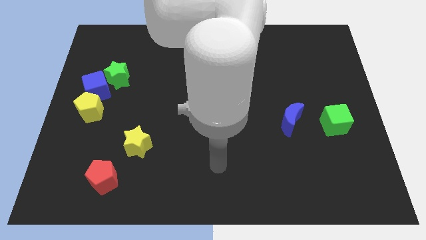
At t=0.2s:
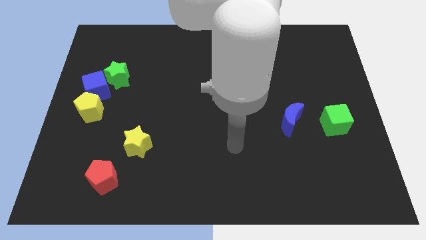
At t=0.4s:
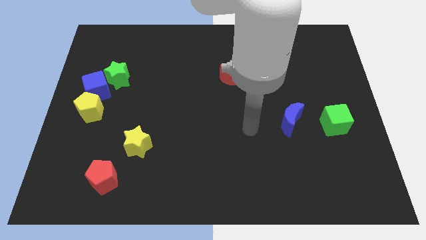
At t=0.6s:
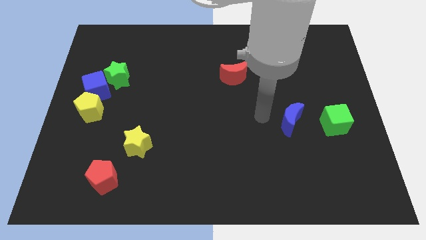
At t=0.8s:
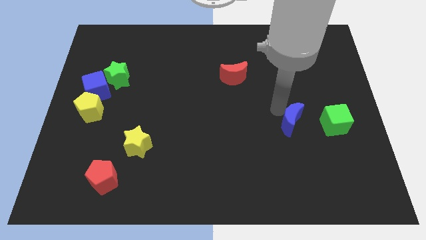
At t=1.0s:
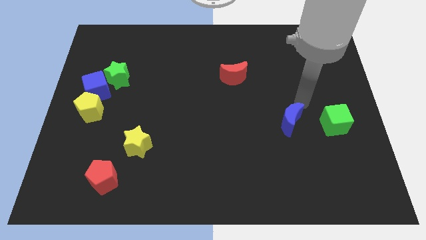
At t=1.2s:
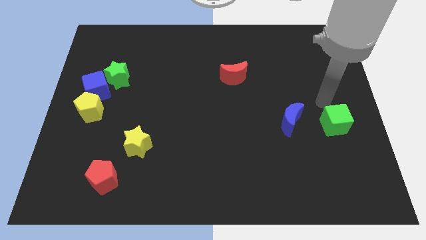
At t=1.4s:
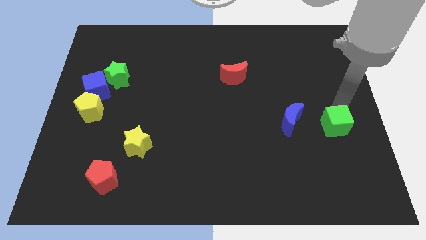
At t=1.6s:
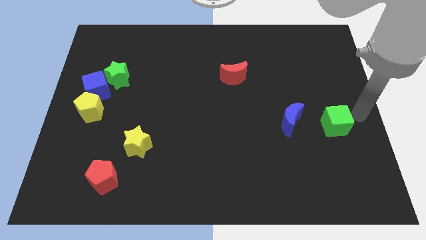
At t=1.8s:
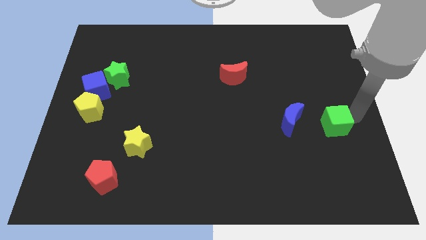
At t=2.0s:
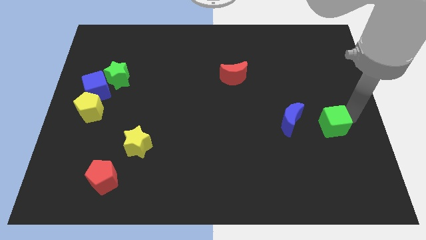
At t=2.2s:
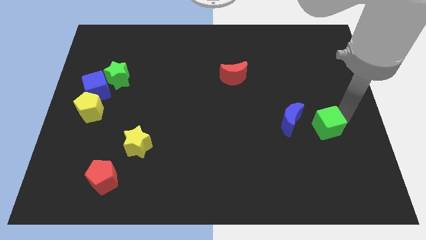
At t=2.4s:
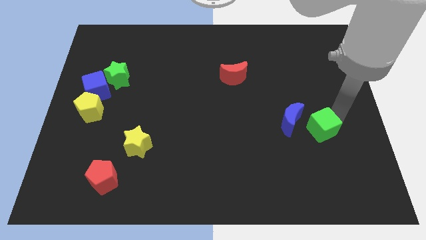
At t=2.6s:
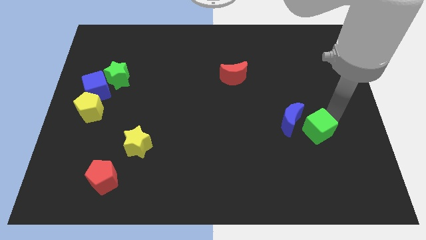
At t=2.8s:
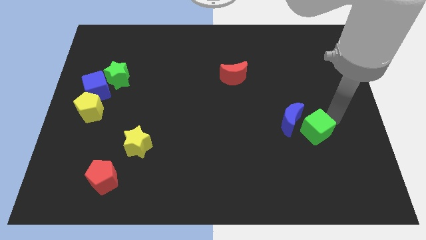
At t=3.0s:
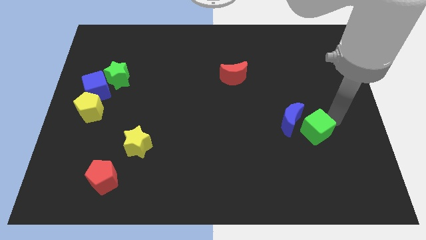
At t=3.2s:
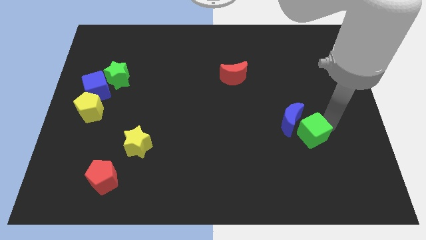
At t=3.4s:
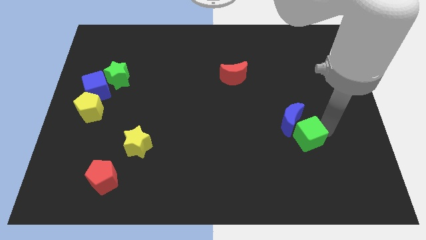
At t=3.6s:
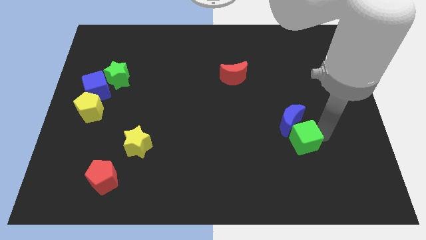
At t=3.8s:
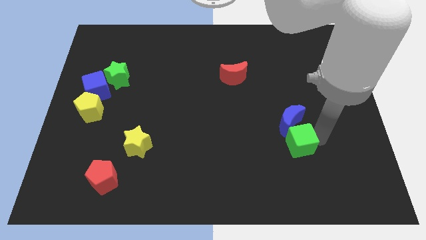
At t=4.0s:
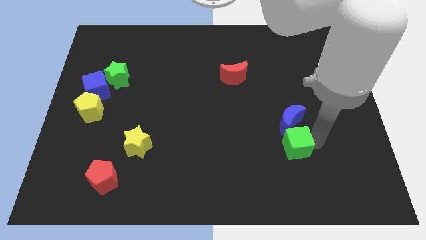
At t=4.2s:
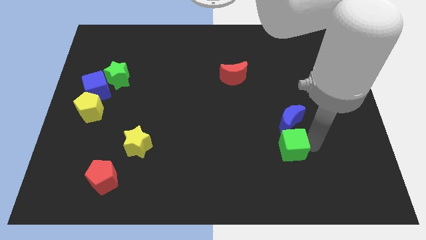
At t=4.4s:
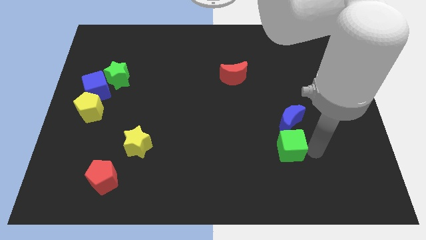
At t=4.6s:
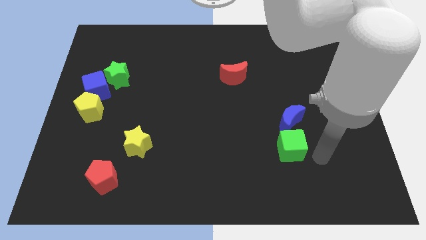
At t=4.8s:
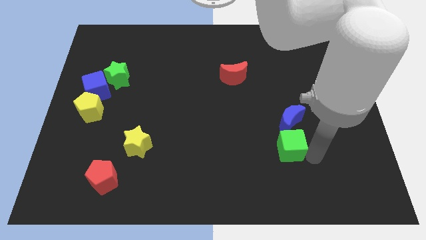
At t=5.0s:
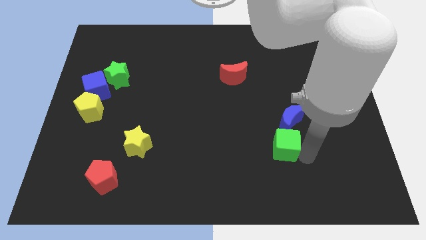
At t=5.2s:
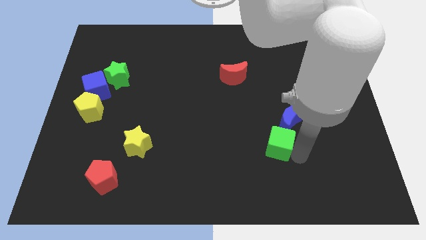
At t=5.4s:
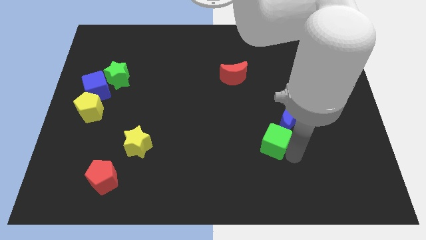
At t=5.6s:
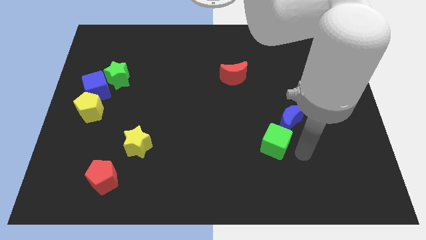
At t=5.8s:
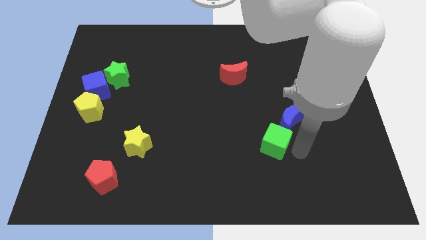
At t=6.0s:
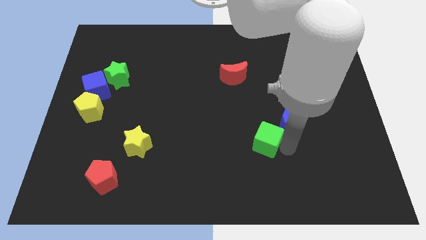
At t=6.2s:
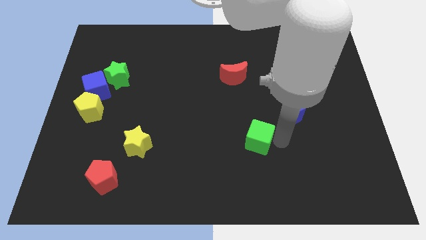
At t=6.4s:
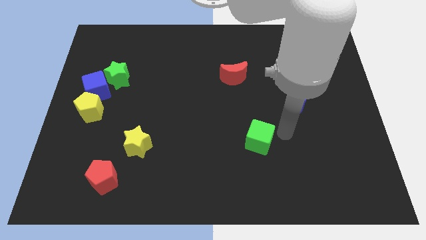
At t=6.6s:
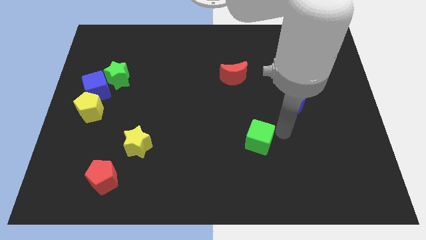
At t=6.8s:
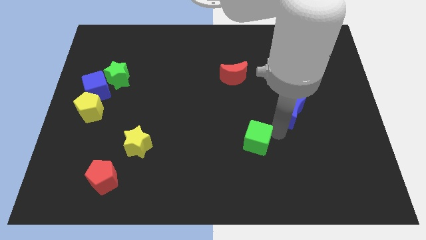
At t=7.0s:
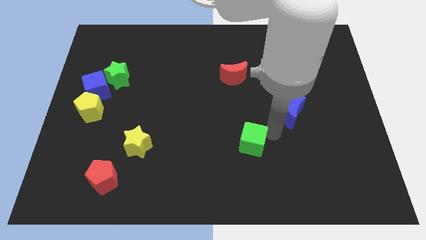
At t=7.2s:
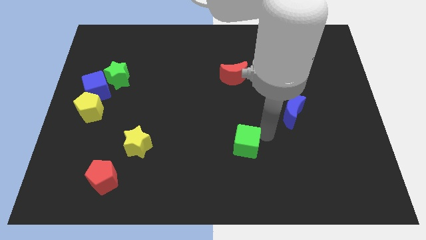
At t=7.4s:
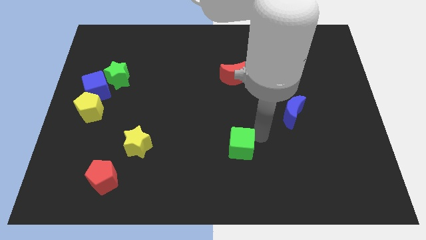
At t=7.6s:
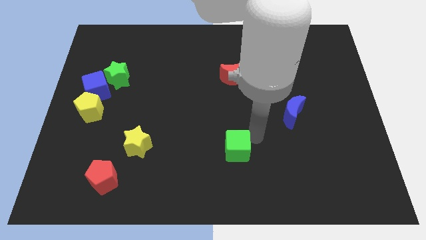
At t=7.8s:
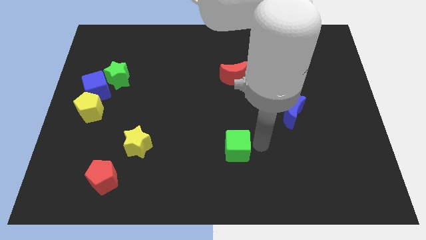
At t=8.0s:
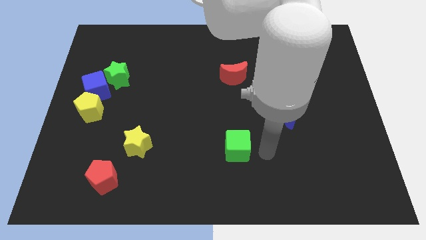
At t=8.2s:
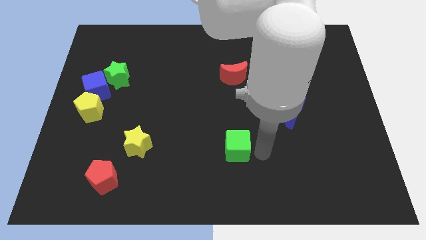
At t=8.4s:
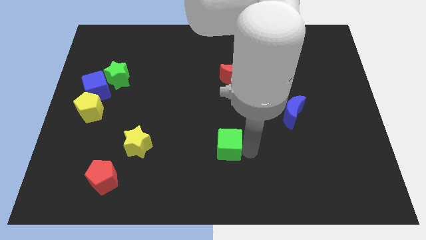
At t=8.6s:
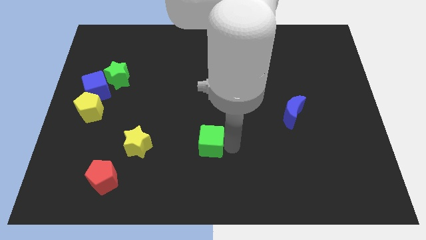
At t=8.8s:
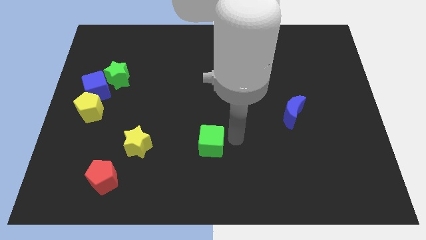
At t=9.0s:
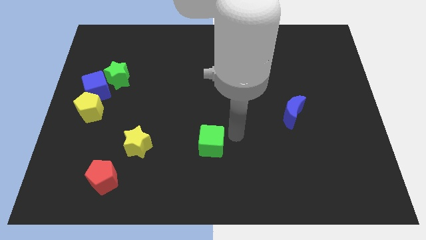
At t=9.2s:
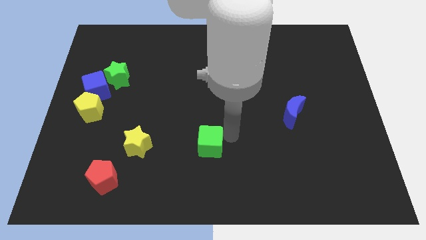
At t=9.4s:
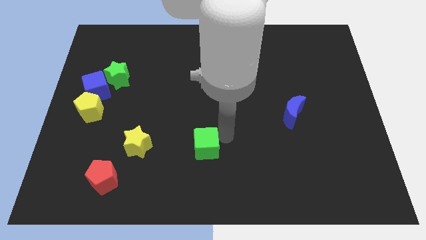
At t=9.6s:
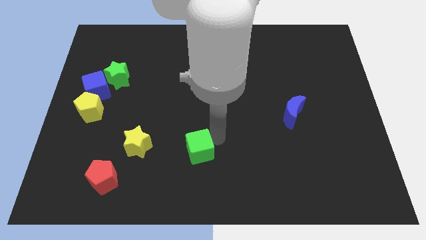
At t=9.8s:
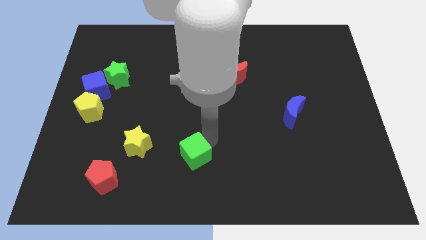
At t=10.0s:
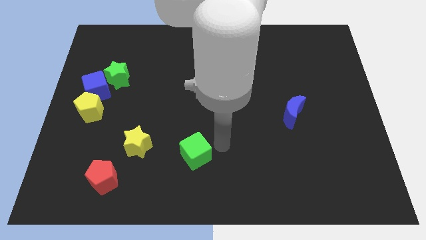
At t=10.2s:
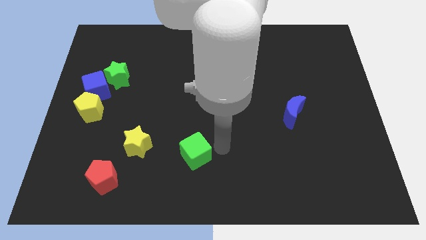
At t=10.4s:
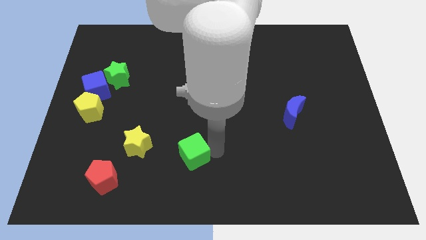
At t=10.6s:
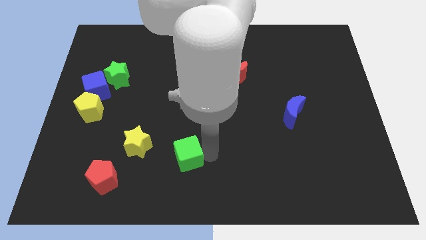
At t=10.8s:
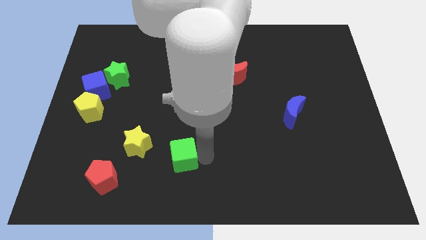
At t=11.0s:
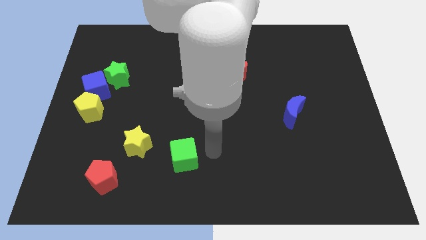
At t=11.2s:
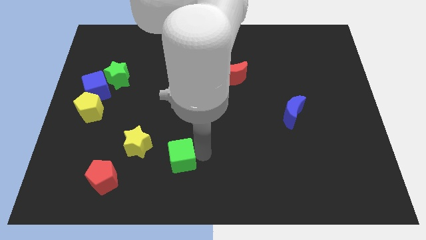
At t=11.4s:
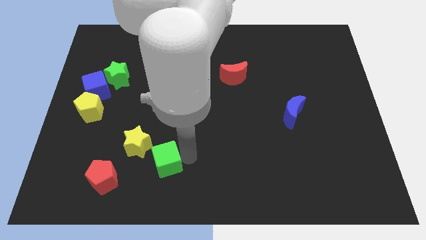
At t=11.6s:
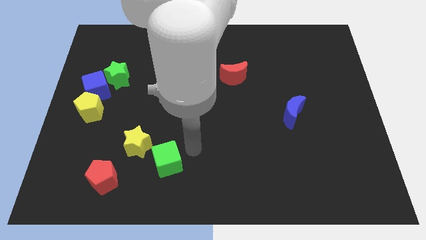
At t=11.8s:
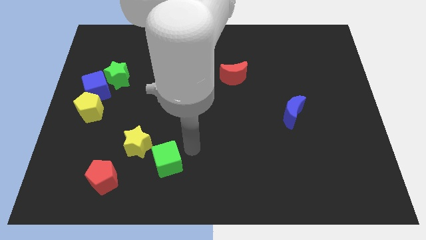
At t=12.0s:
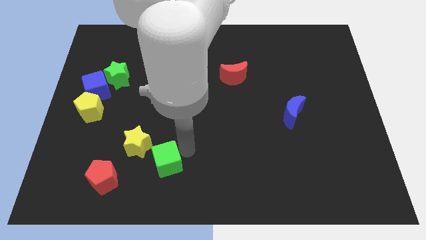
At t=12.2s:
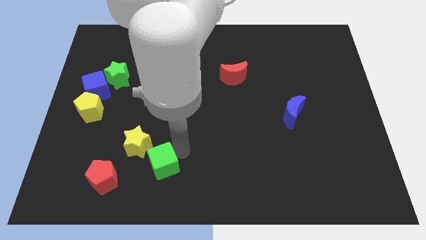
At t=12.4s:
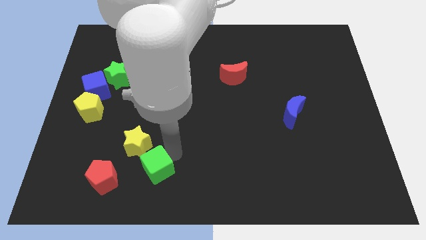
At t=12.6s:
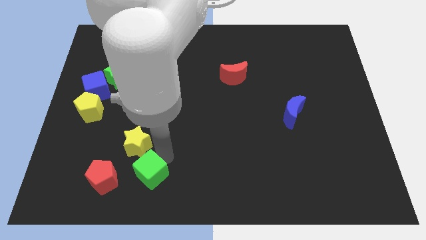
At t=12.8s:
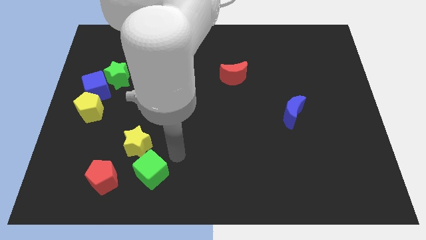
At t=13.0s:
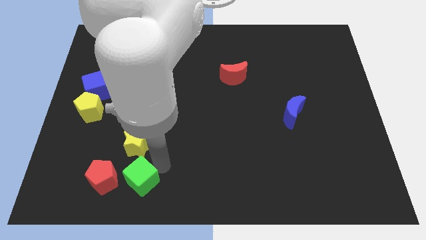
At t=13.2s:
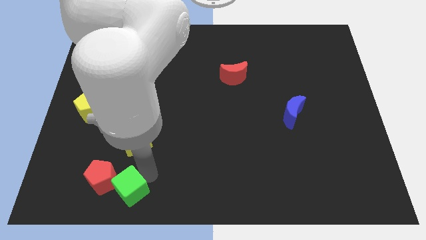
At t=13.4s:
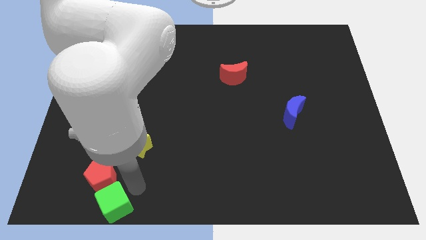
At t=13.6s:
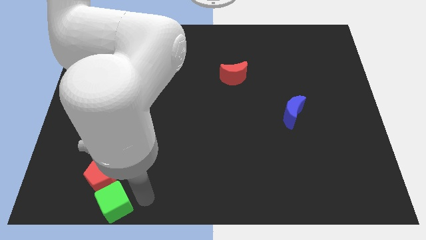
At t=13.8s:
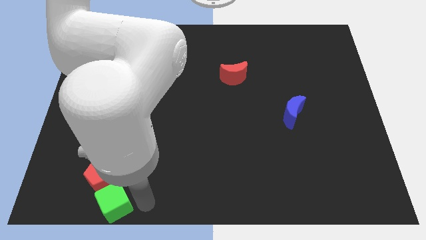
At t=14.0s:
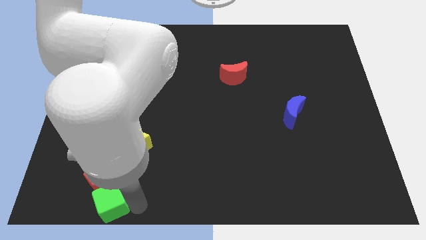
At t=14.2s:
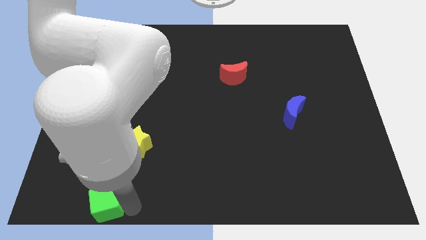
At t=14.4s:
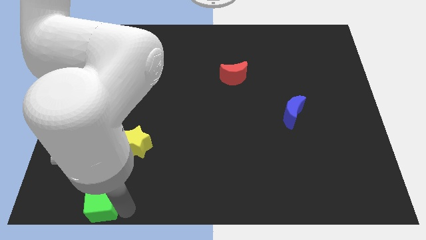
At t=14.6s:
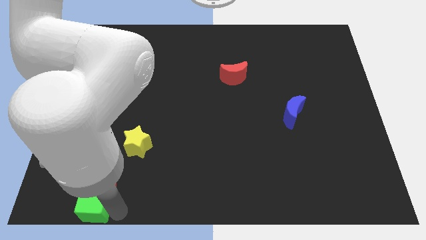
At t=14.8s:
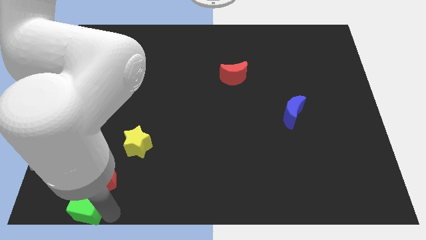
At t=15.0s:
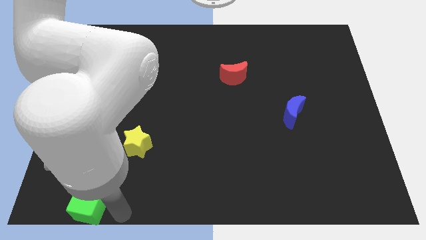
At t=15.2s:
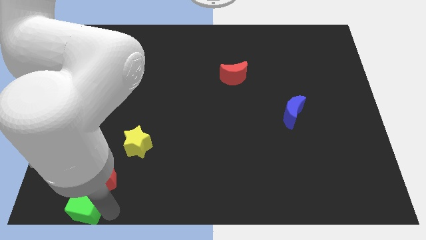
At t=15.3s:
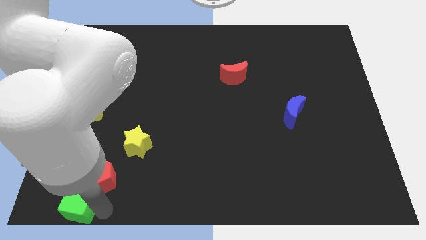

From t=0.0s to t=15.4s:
push the green cube to the lower left corner
